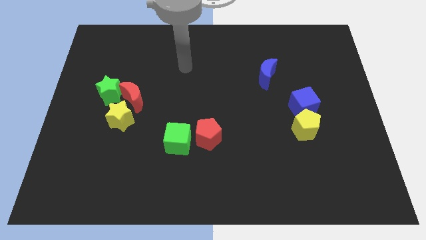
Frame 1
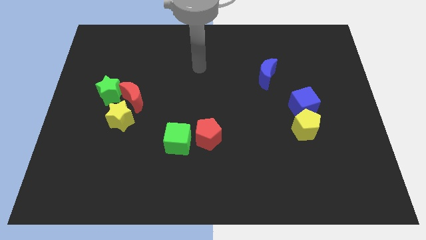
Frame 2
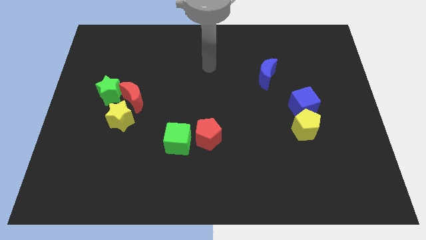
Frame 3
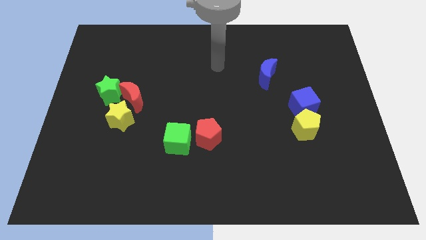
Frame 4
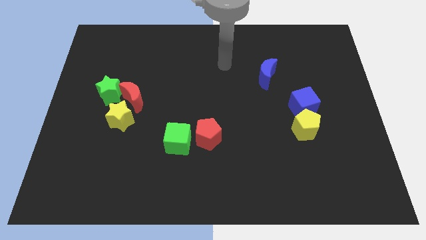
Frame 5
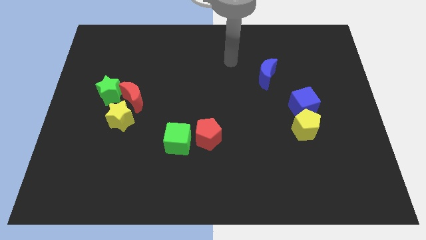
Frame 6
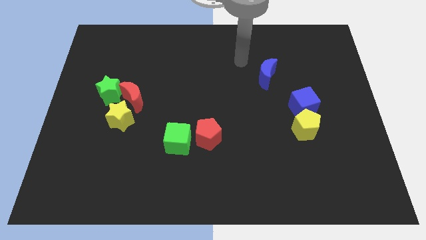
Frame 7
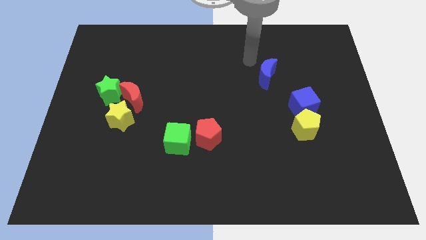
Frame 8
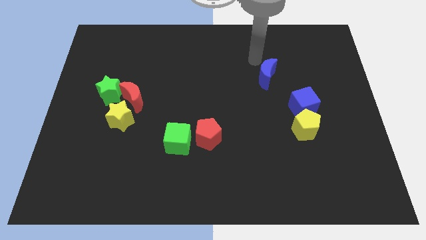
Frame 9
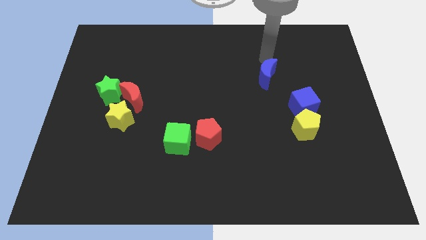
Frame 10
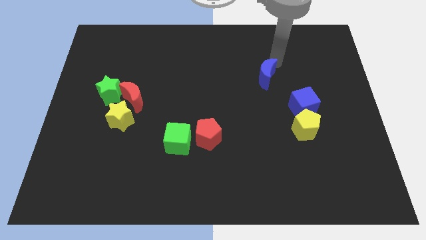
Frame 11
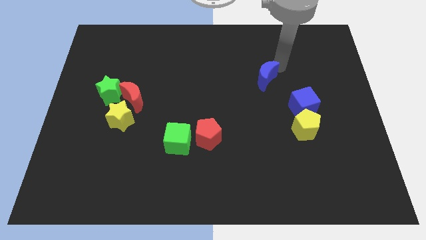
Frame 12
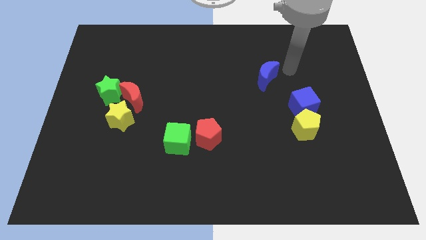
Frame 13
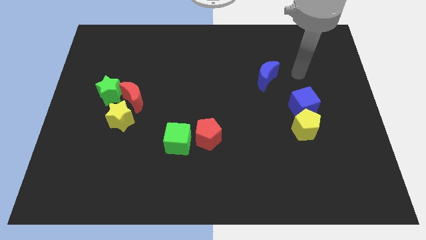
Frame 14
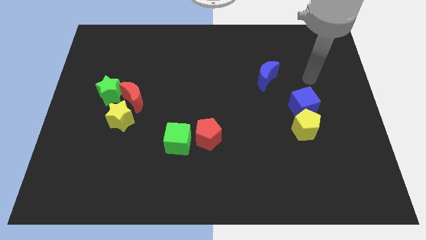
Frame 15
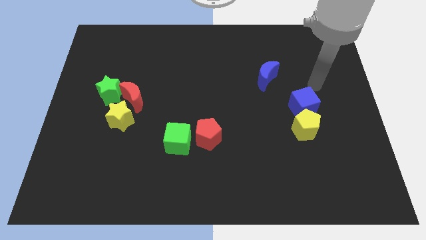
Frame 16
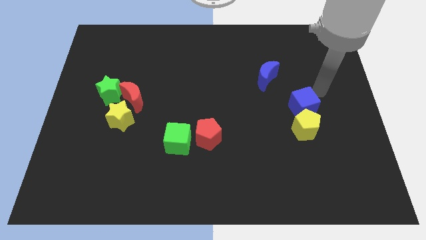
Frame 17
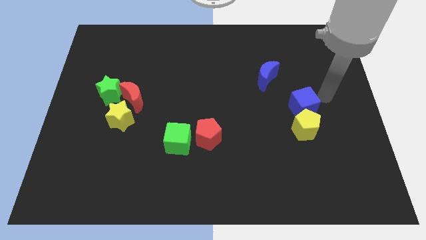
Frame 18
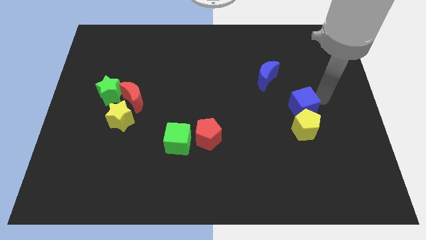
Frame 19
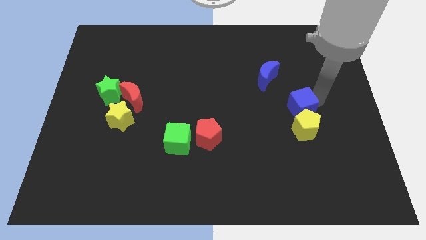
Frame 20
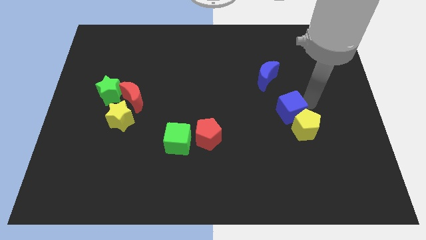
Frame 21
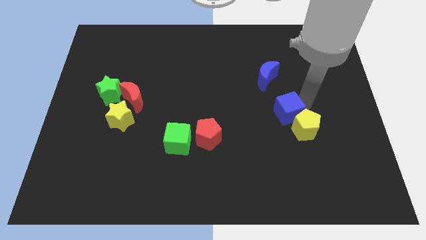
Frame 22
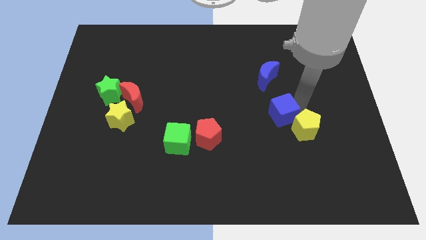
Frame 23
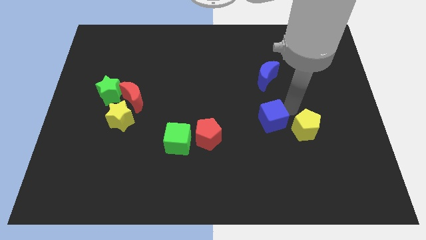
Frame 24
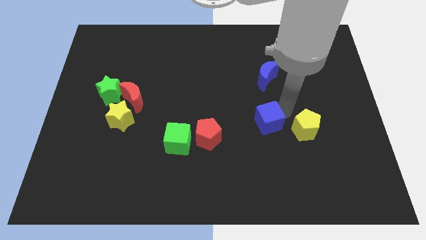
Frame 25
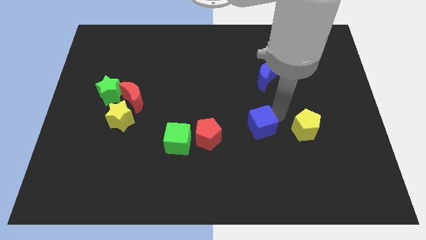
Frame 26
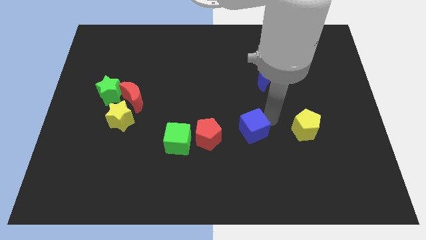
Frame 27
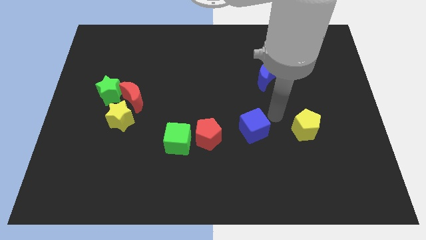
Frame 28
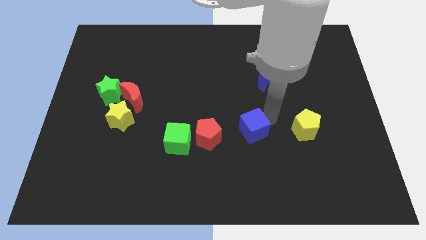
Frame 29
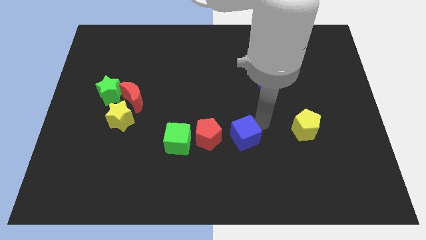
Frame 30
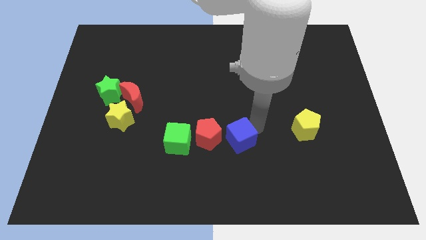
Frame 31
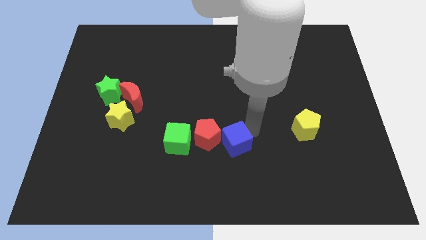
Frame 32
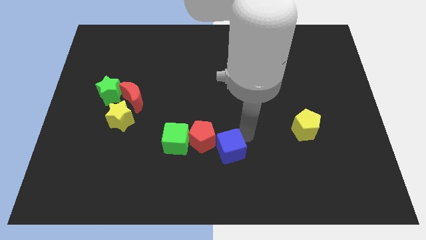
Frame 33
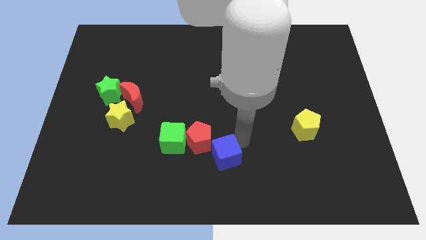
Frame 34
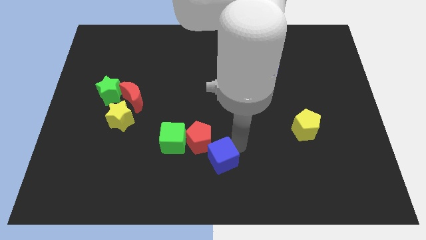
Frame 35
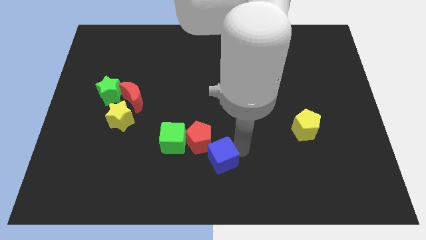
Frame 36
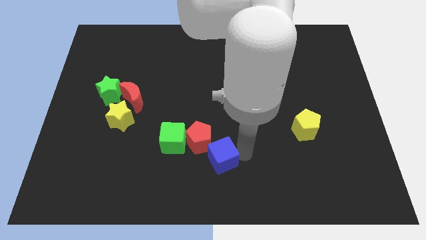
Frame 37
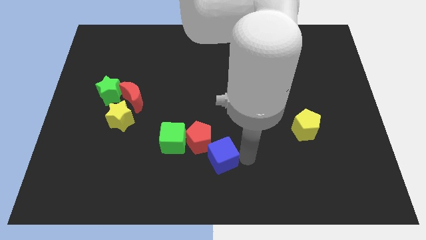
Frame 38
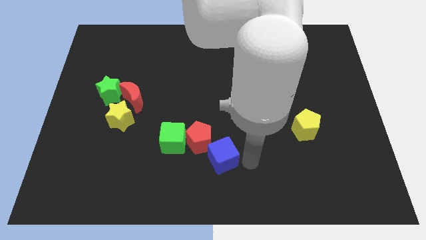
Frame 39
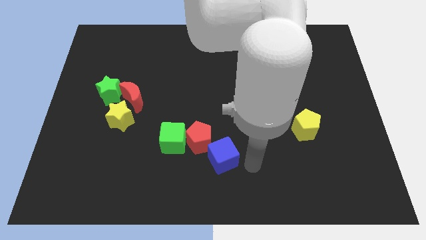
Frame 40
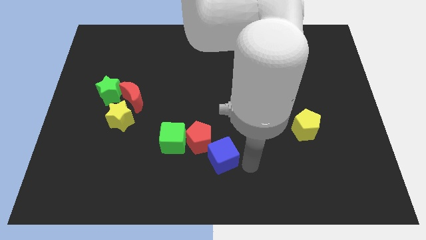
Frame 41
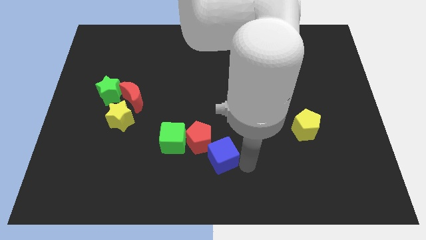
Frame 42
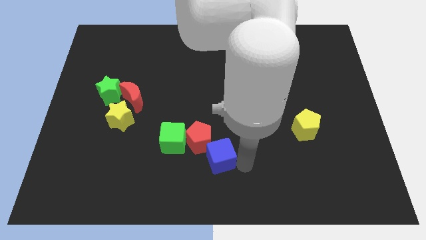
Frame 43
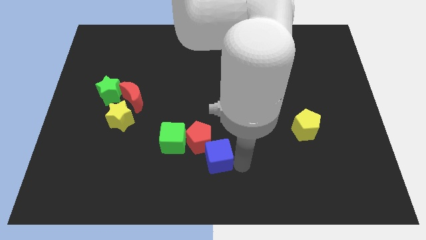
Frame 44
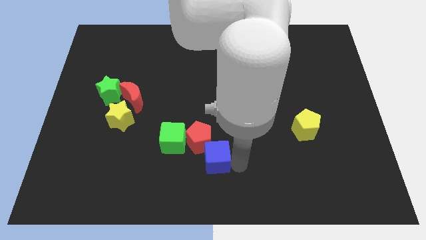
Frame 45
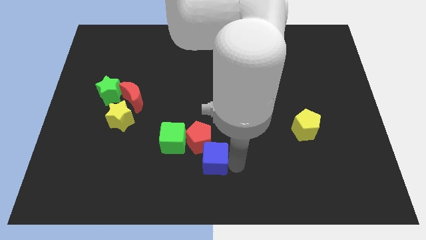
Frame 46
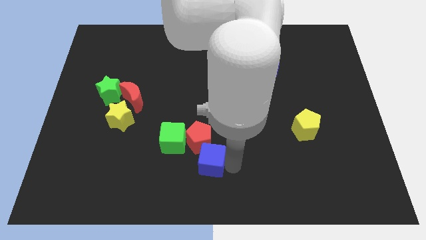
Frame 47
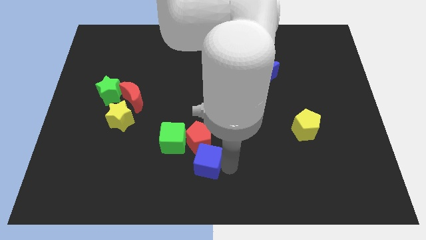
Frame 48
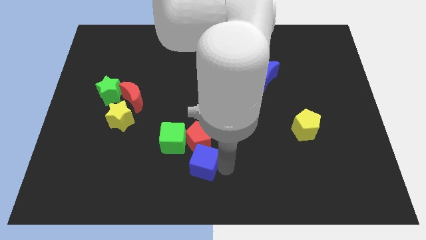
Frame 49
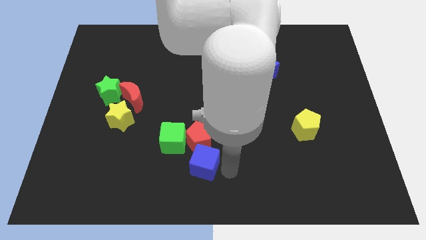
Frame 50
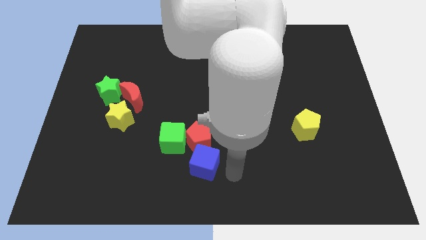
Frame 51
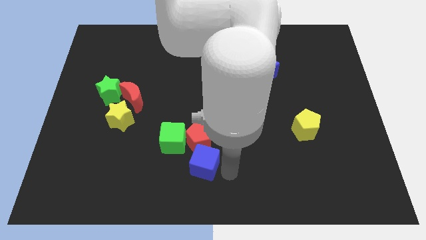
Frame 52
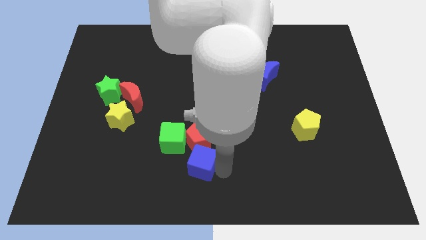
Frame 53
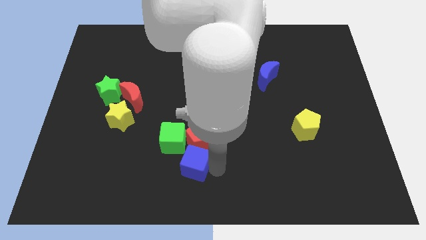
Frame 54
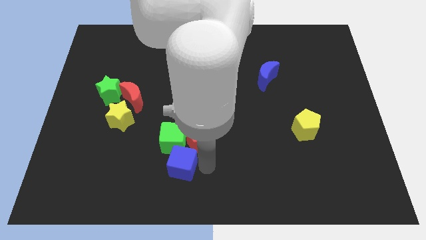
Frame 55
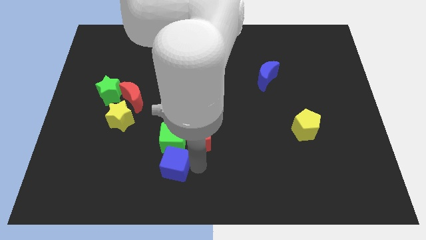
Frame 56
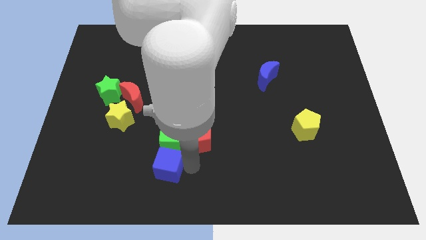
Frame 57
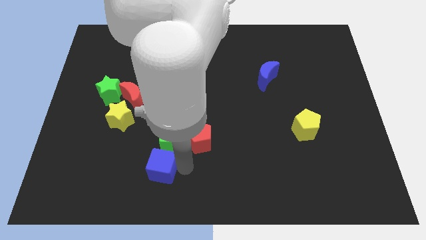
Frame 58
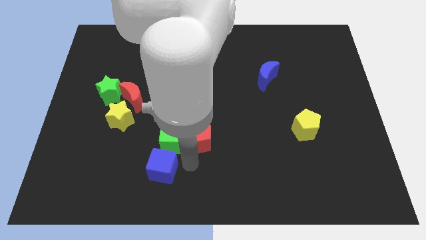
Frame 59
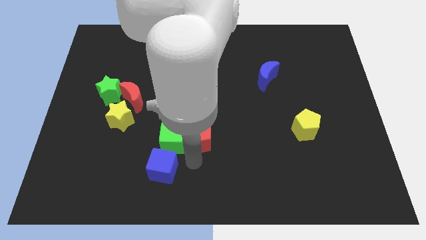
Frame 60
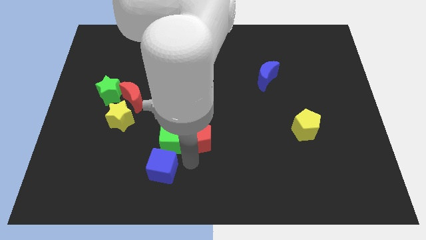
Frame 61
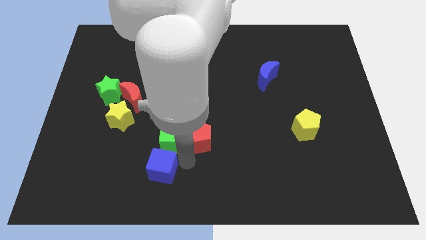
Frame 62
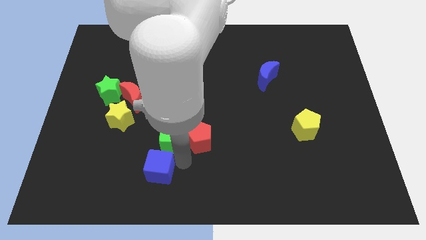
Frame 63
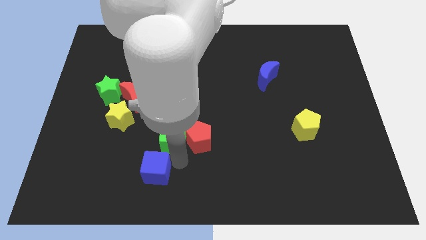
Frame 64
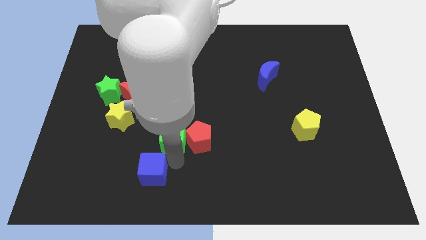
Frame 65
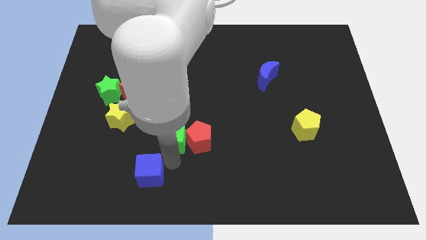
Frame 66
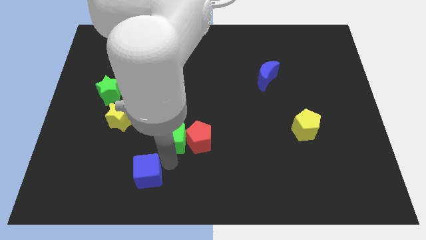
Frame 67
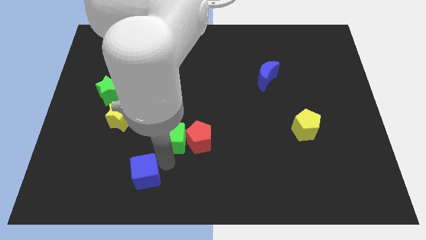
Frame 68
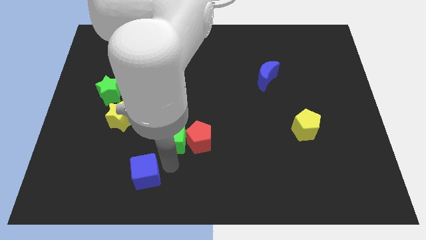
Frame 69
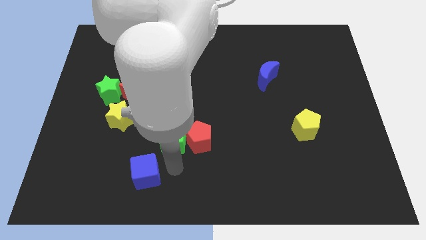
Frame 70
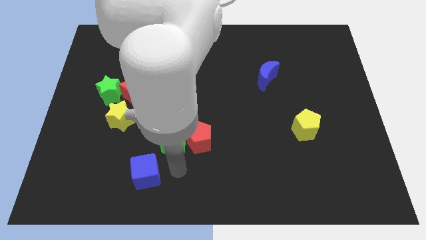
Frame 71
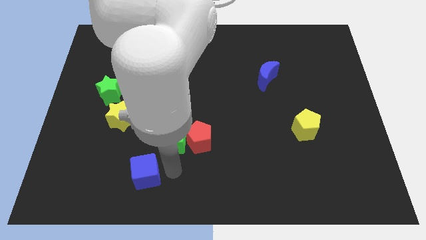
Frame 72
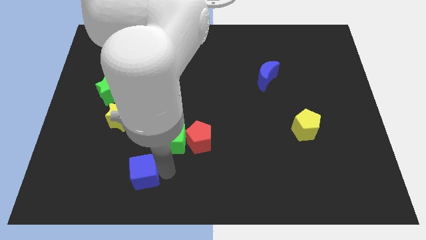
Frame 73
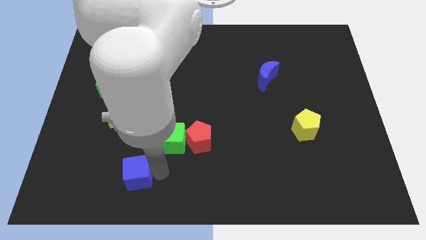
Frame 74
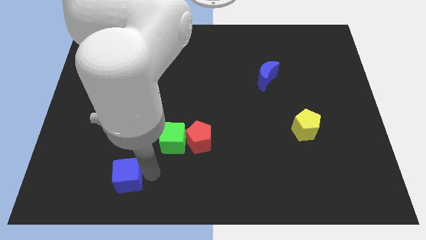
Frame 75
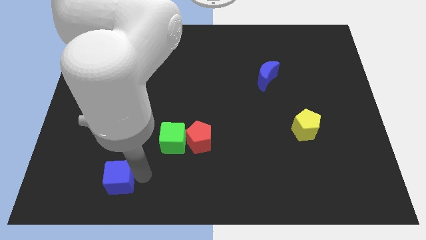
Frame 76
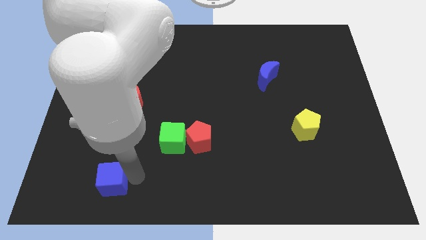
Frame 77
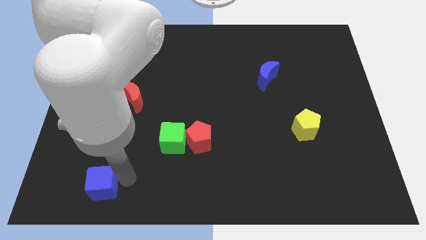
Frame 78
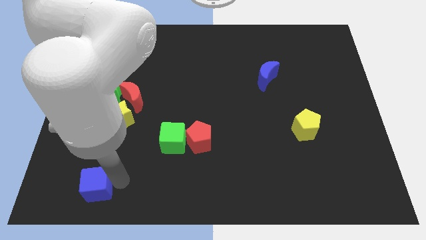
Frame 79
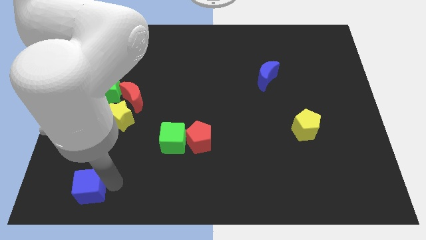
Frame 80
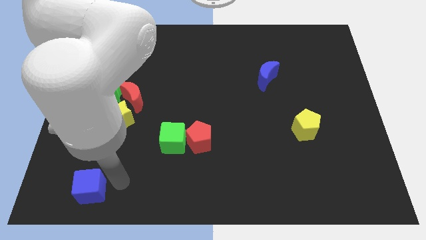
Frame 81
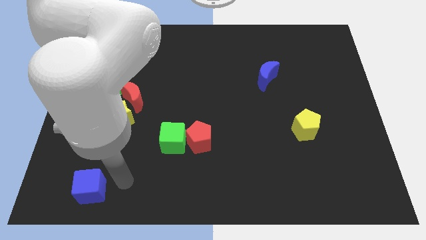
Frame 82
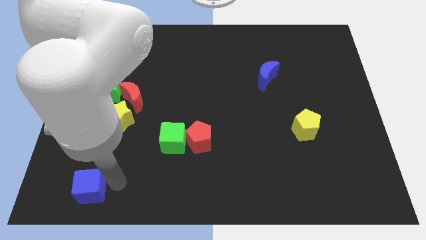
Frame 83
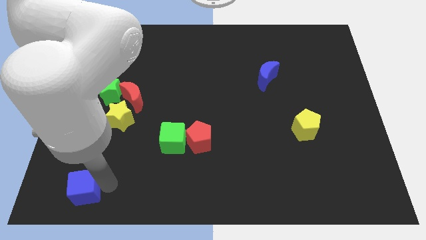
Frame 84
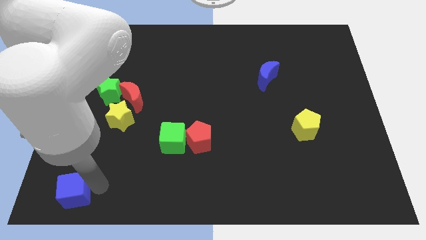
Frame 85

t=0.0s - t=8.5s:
put the blue cube to the bottom left
